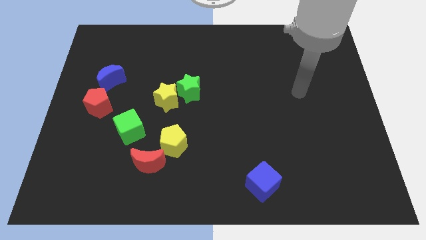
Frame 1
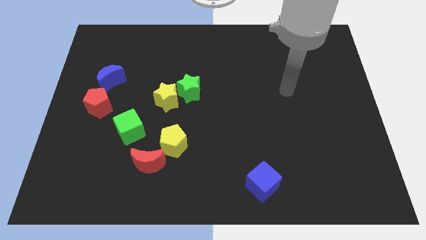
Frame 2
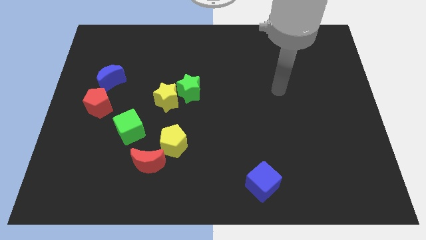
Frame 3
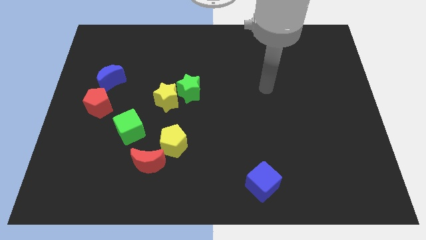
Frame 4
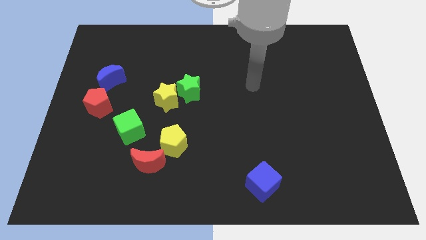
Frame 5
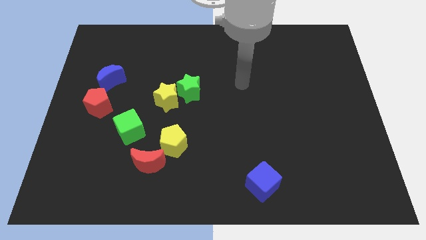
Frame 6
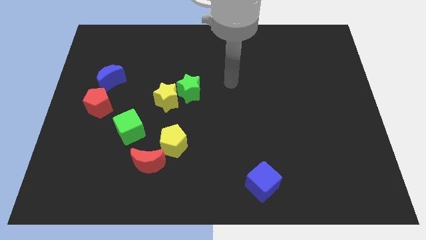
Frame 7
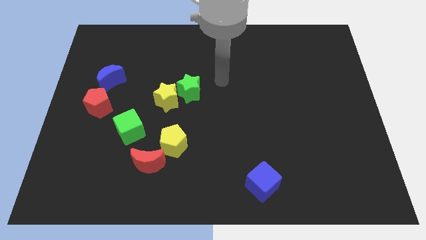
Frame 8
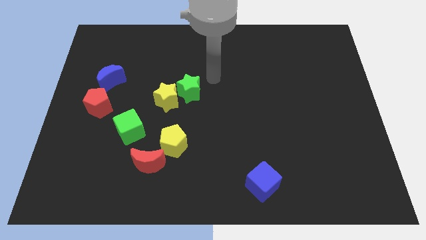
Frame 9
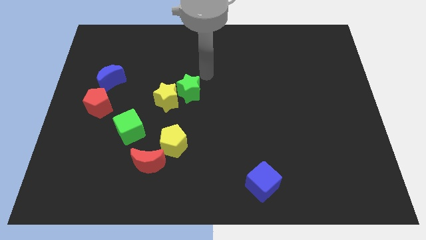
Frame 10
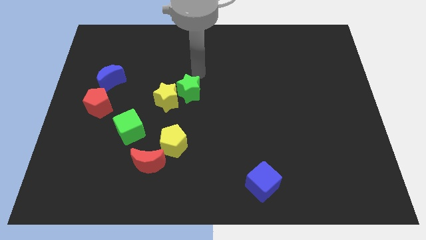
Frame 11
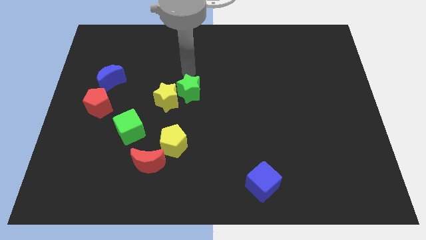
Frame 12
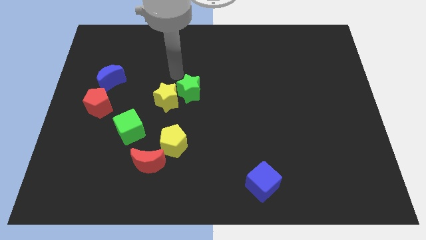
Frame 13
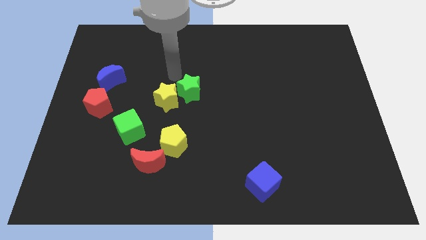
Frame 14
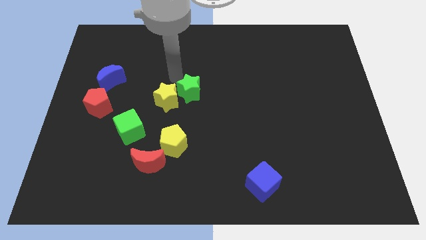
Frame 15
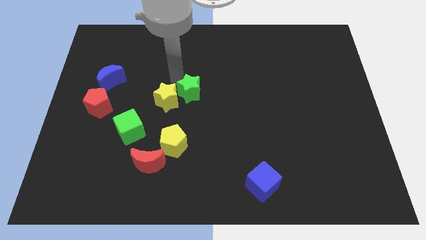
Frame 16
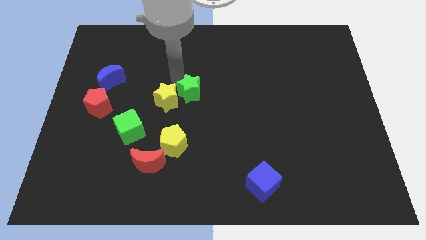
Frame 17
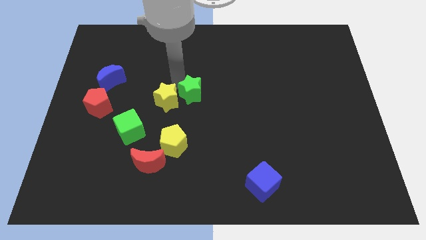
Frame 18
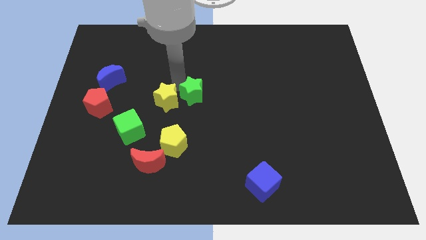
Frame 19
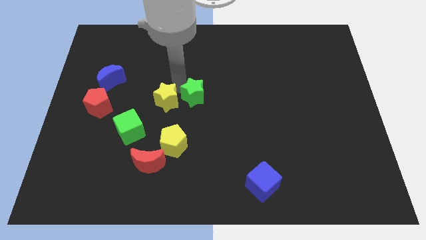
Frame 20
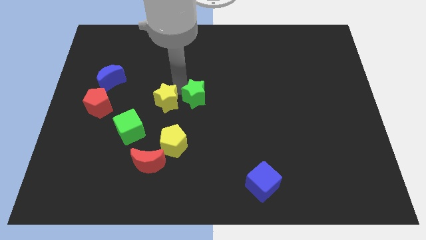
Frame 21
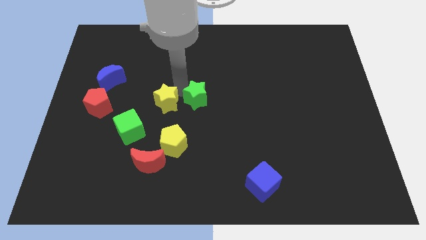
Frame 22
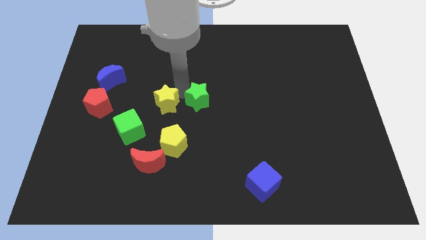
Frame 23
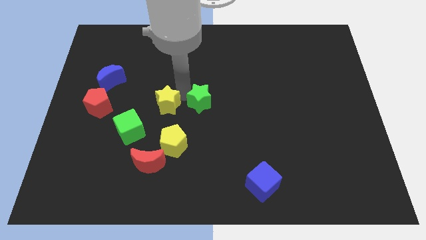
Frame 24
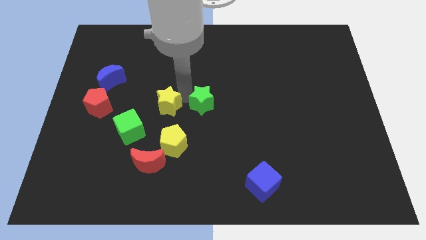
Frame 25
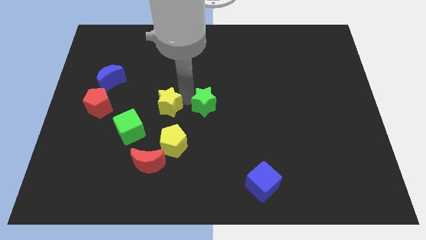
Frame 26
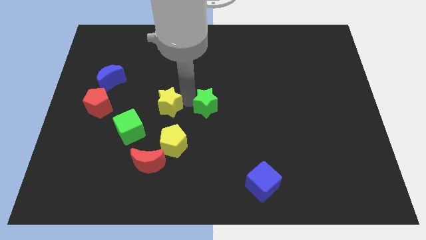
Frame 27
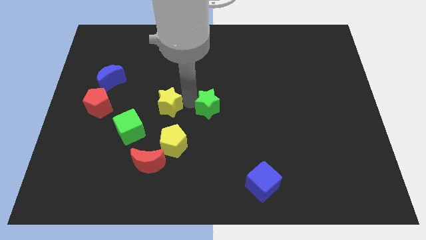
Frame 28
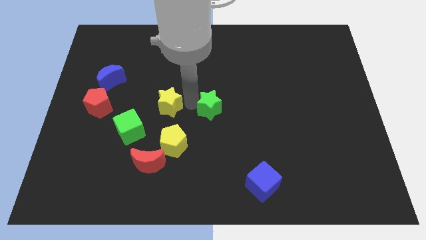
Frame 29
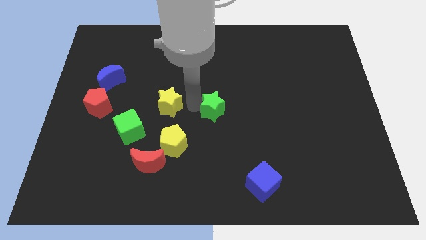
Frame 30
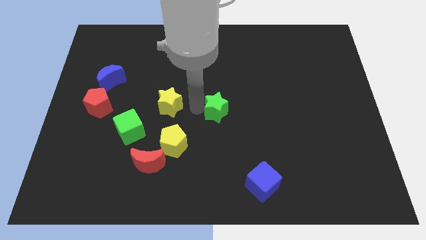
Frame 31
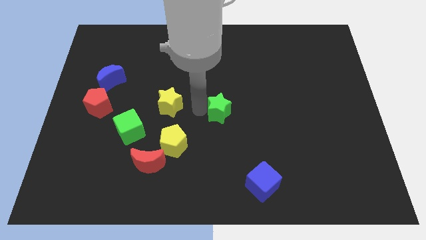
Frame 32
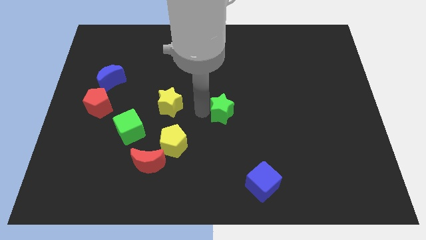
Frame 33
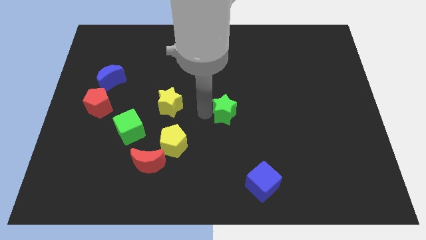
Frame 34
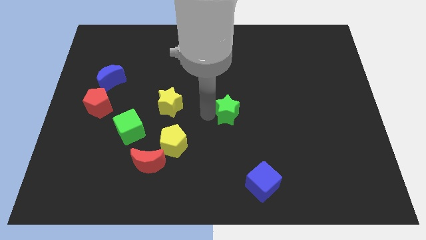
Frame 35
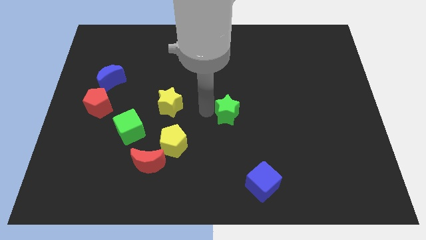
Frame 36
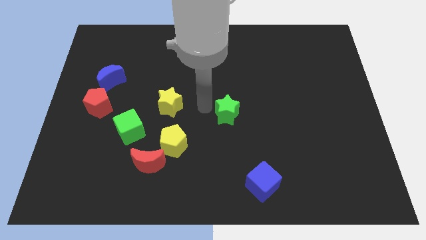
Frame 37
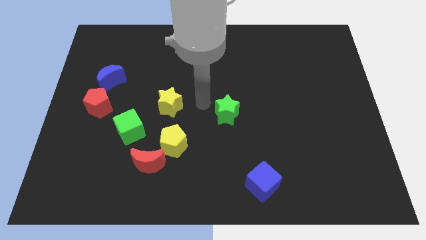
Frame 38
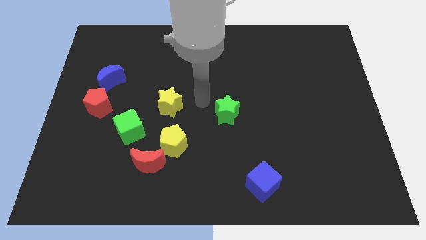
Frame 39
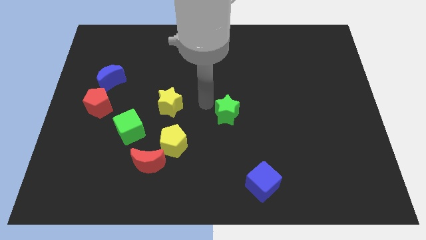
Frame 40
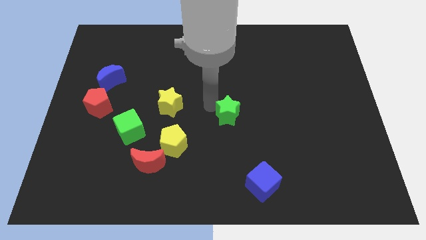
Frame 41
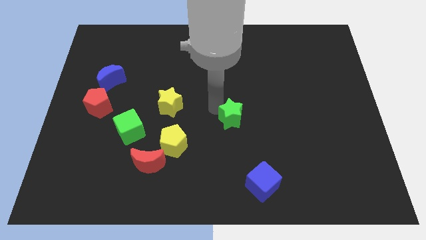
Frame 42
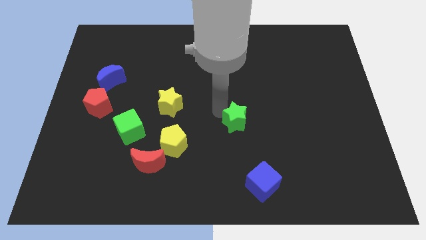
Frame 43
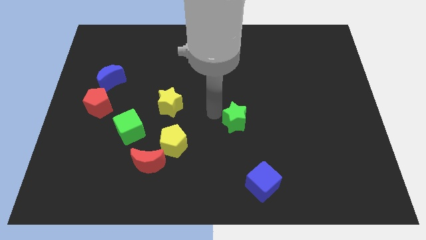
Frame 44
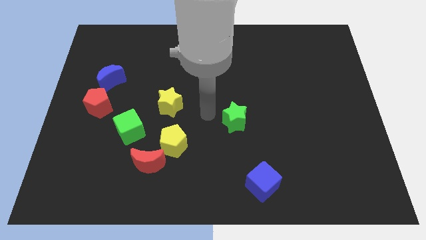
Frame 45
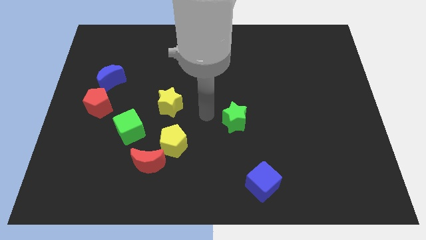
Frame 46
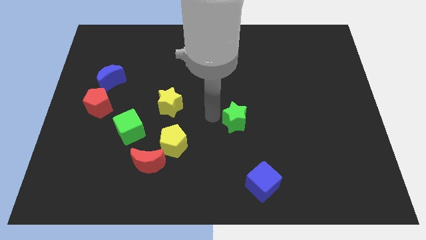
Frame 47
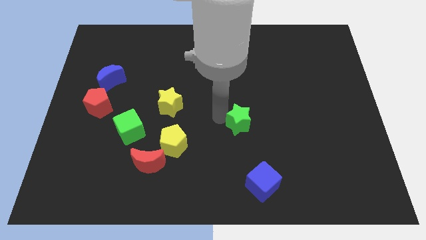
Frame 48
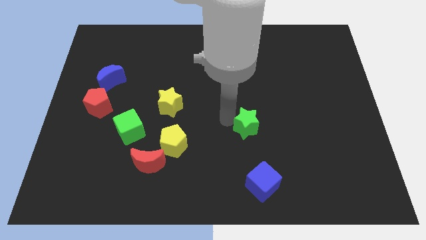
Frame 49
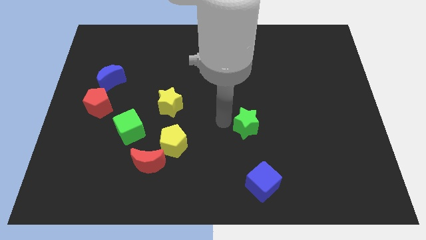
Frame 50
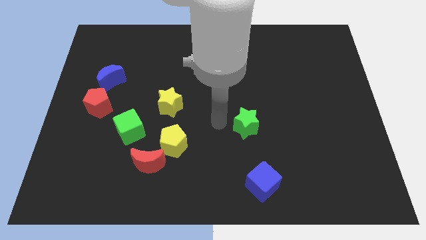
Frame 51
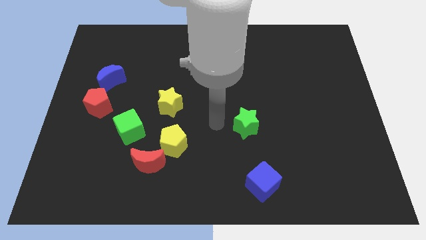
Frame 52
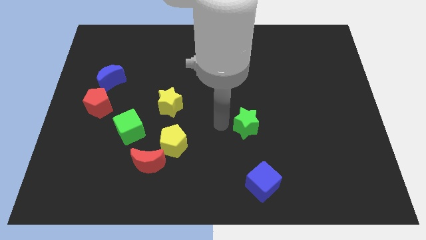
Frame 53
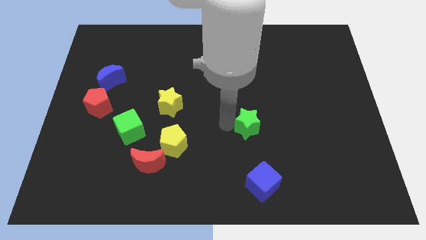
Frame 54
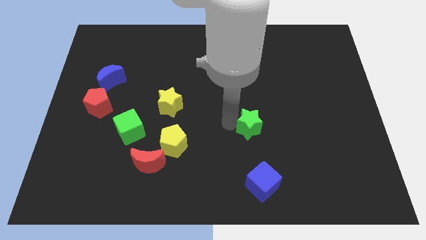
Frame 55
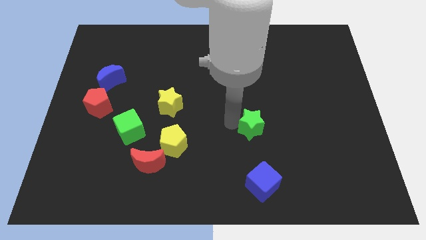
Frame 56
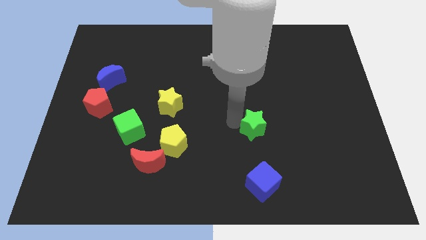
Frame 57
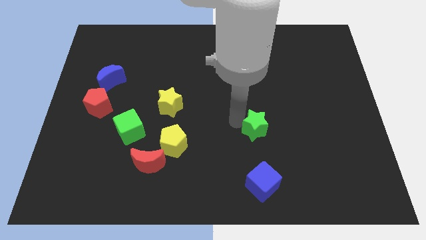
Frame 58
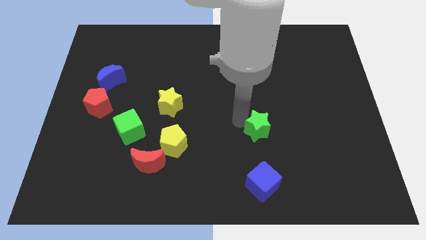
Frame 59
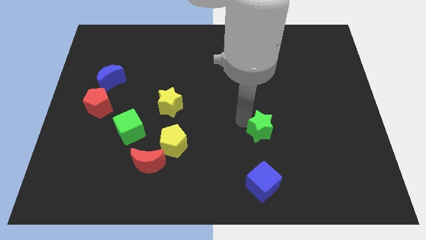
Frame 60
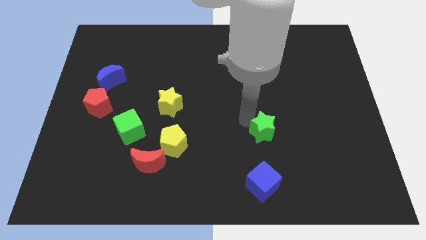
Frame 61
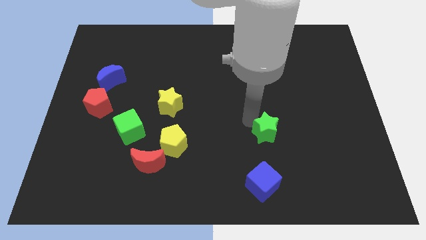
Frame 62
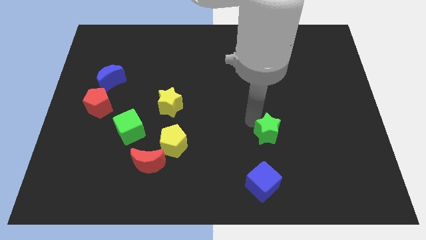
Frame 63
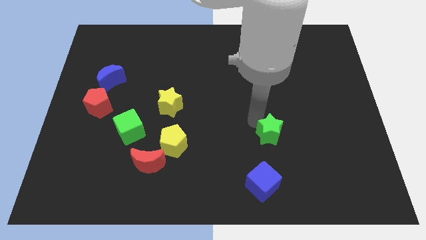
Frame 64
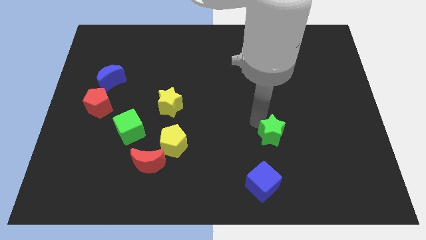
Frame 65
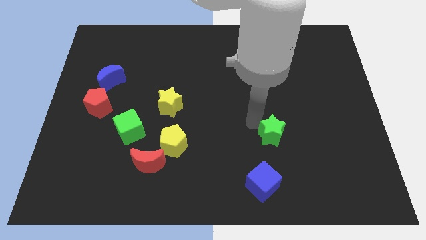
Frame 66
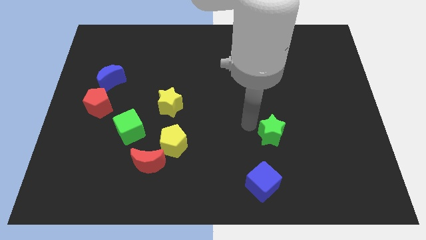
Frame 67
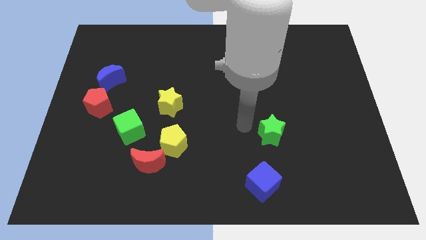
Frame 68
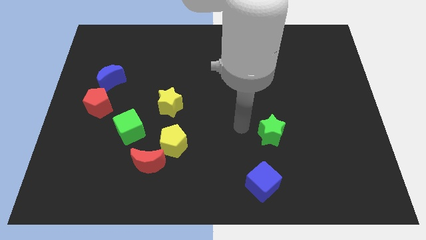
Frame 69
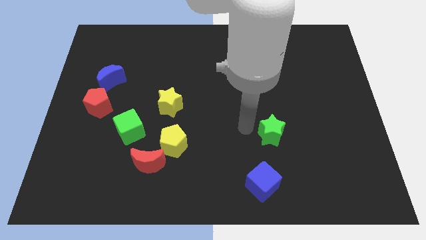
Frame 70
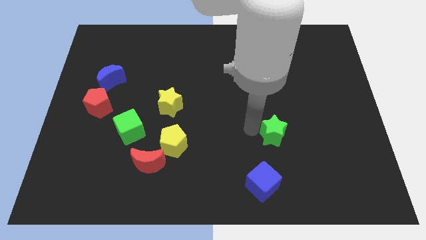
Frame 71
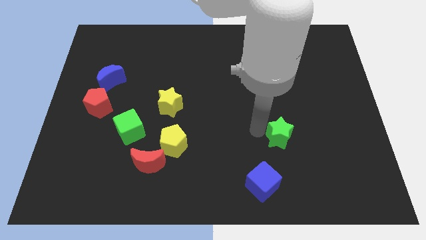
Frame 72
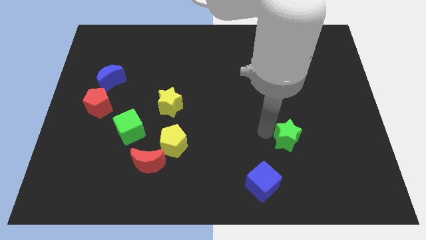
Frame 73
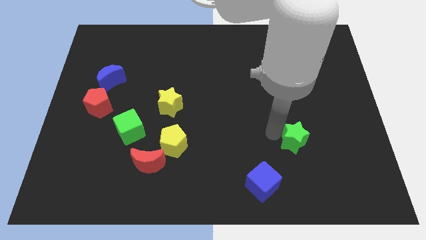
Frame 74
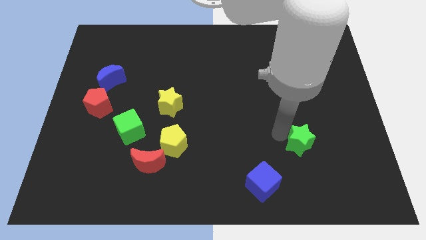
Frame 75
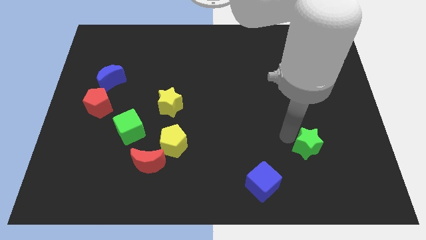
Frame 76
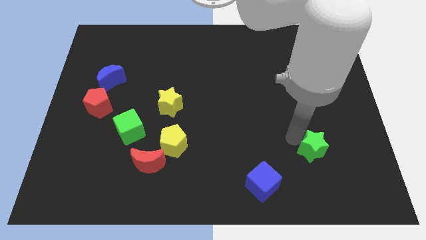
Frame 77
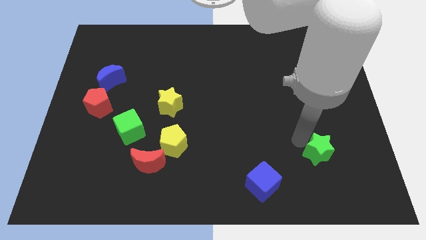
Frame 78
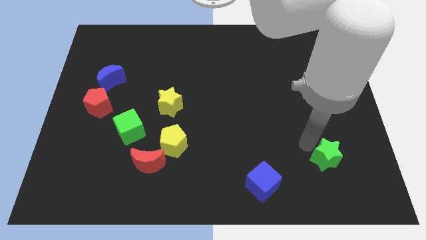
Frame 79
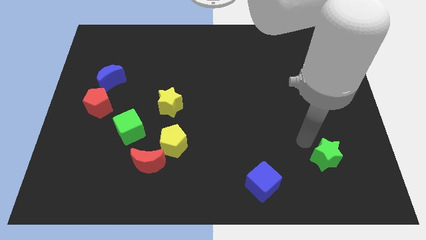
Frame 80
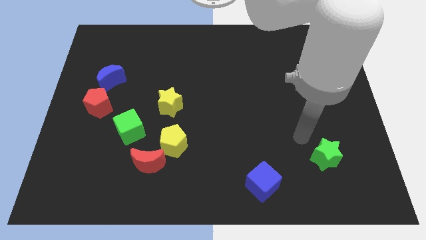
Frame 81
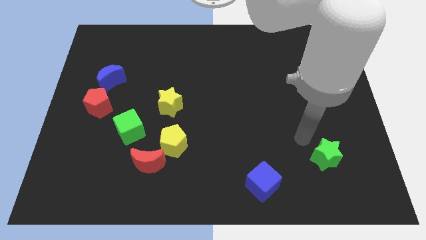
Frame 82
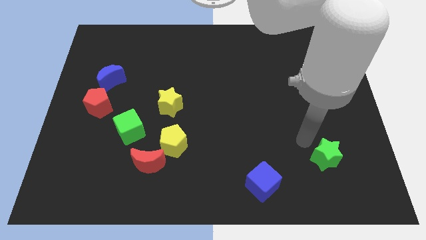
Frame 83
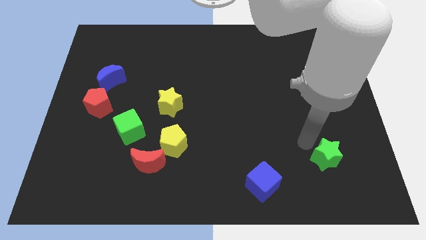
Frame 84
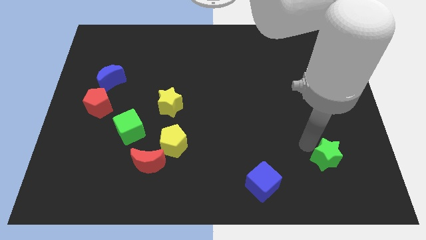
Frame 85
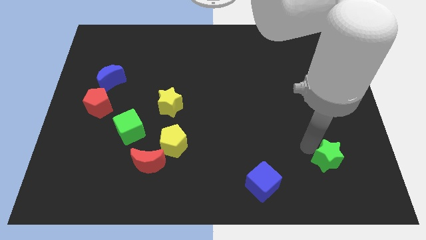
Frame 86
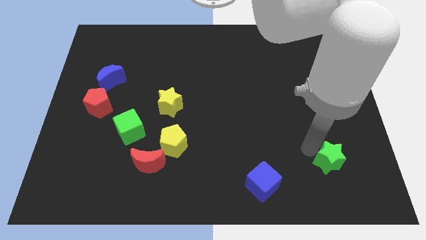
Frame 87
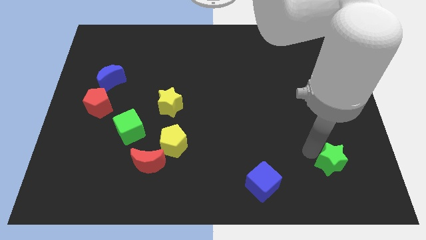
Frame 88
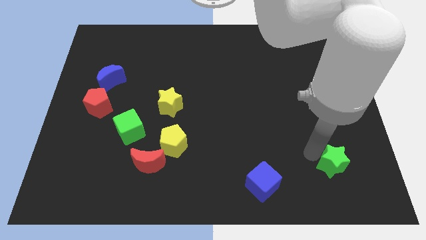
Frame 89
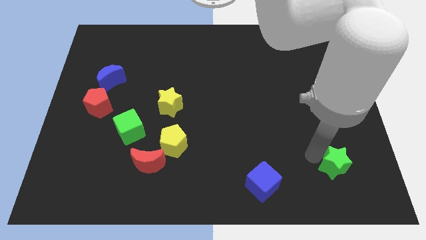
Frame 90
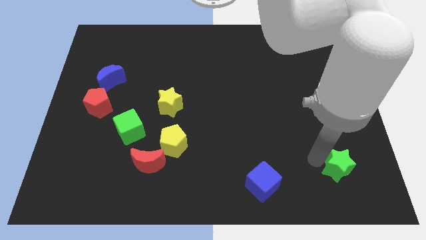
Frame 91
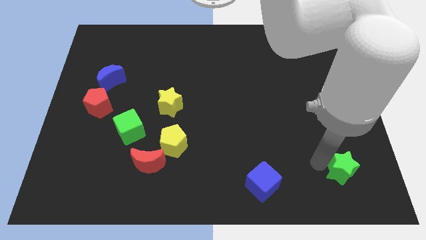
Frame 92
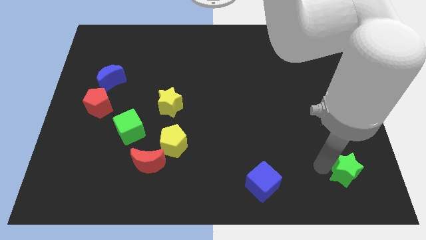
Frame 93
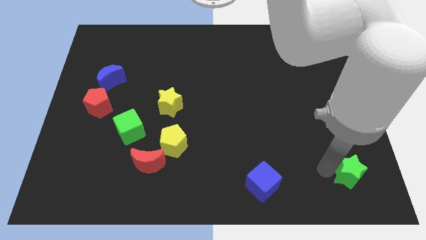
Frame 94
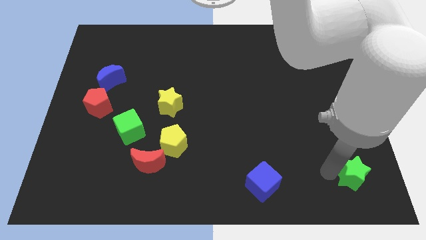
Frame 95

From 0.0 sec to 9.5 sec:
push the green star to the bottom right corner
